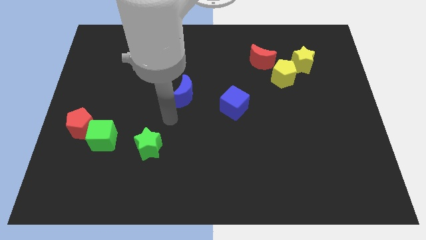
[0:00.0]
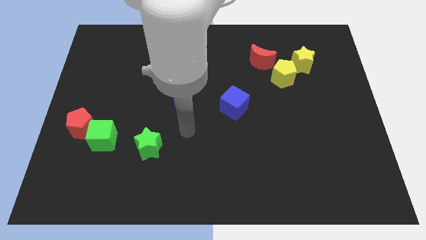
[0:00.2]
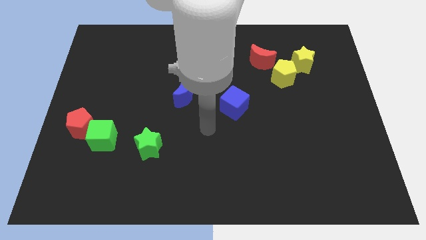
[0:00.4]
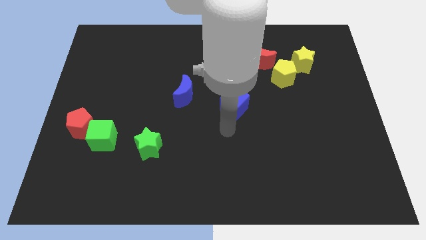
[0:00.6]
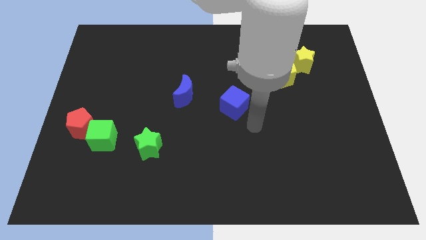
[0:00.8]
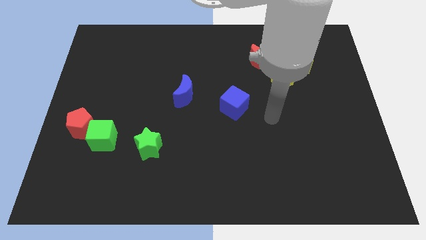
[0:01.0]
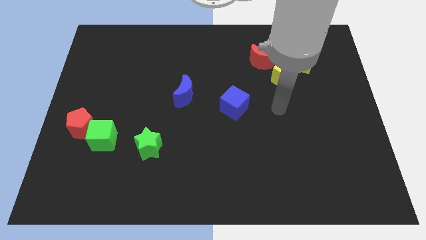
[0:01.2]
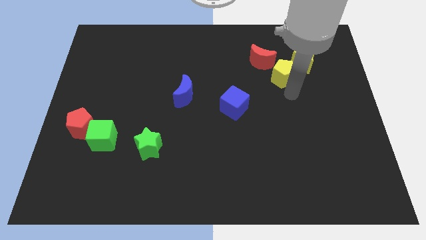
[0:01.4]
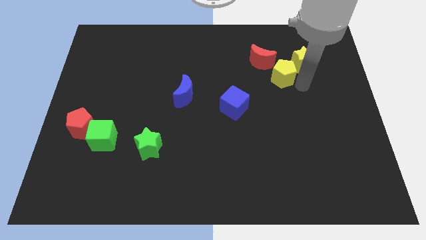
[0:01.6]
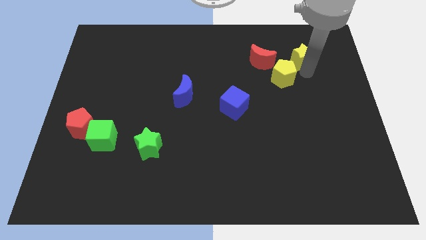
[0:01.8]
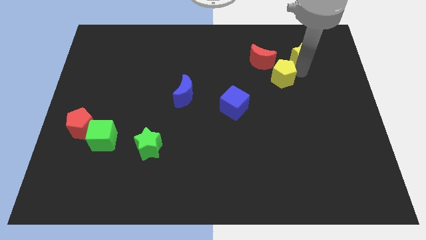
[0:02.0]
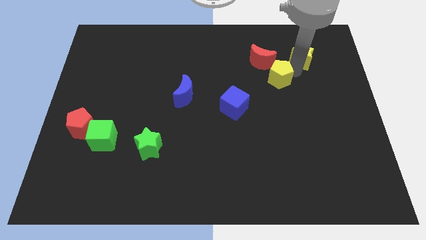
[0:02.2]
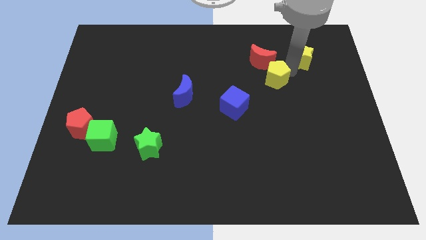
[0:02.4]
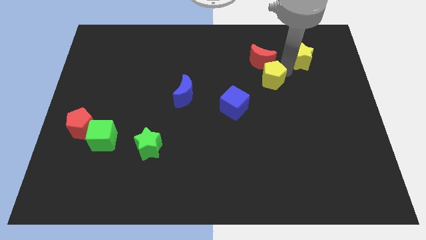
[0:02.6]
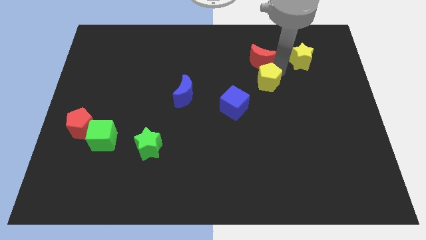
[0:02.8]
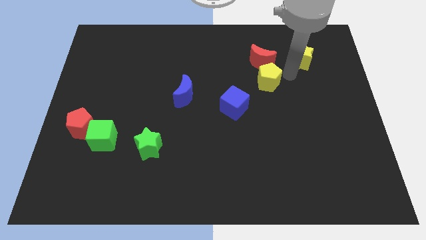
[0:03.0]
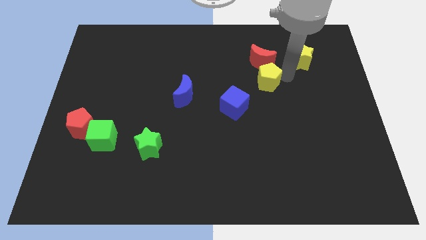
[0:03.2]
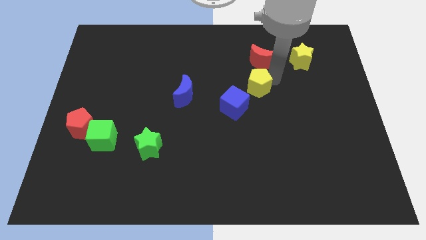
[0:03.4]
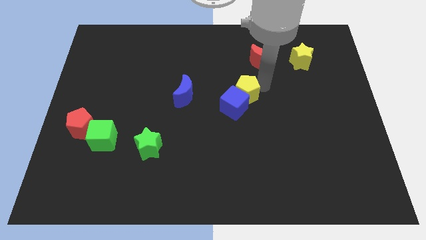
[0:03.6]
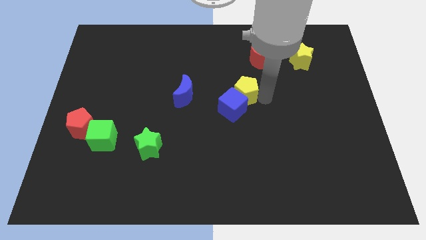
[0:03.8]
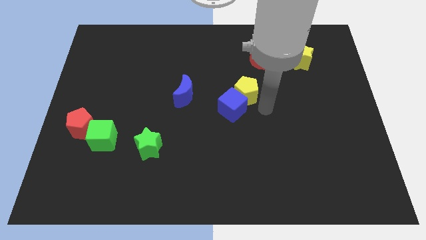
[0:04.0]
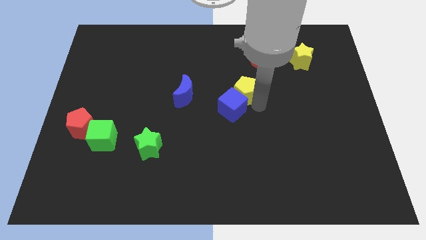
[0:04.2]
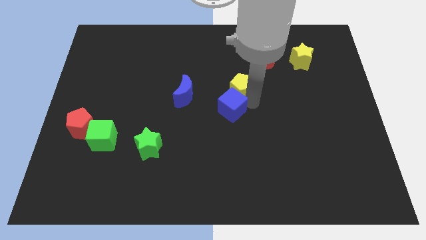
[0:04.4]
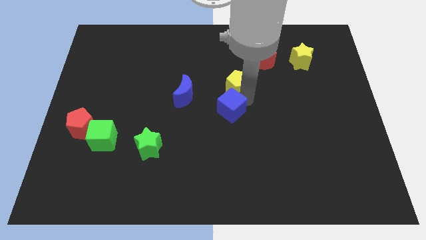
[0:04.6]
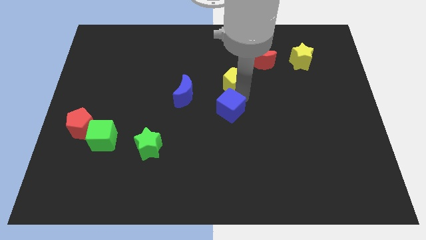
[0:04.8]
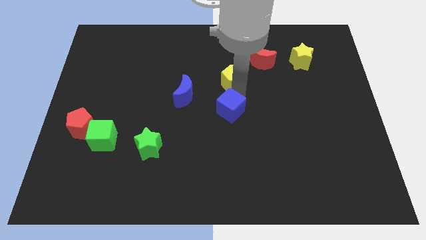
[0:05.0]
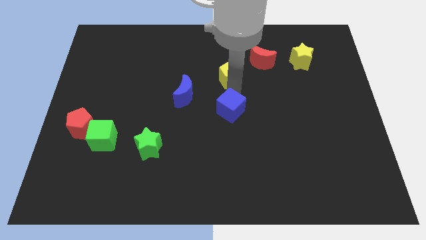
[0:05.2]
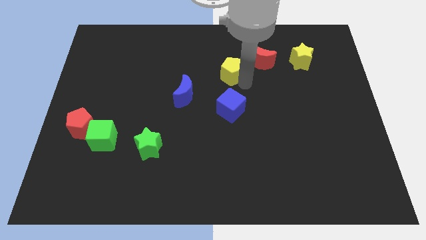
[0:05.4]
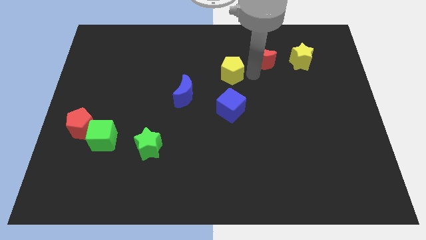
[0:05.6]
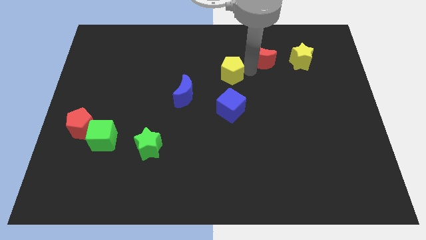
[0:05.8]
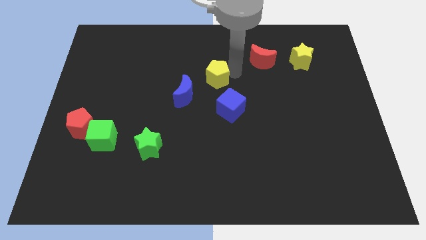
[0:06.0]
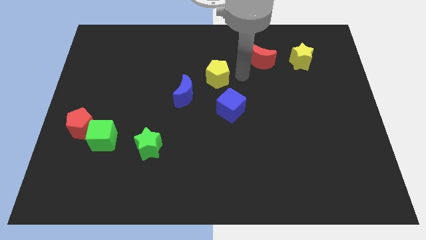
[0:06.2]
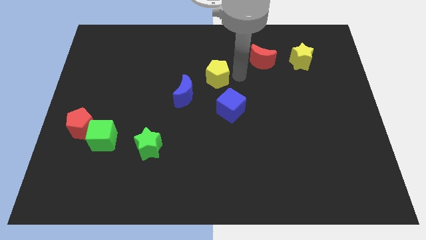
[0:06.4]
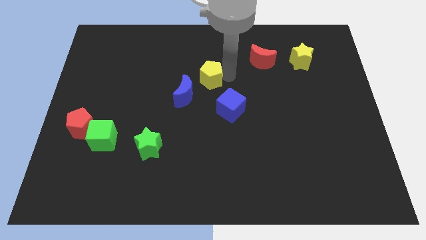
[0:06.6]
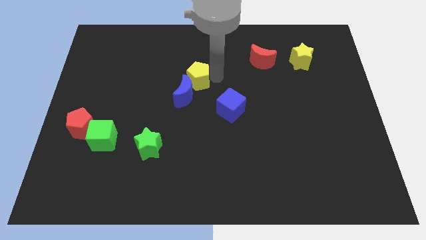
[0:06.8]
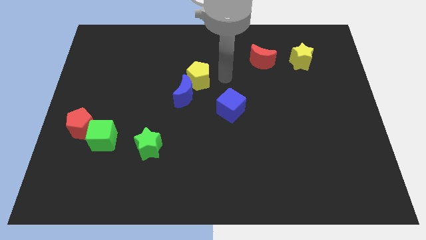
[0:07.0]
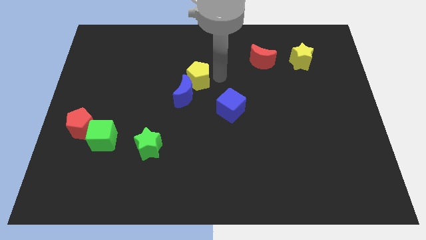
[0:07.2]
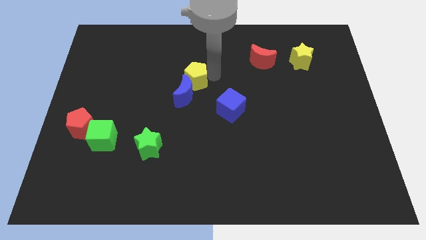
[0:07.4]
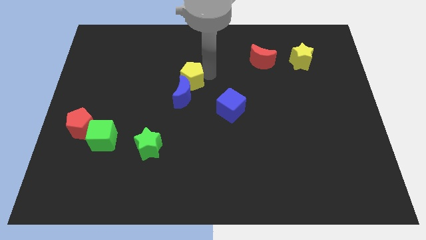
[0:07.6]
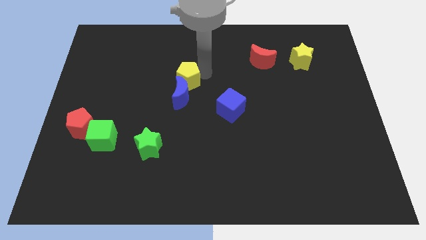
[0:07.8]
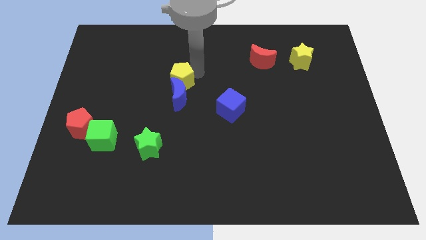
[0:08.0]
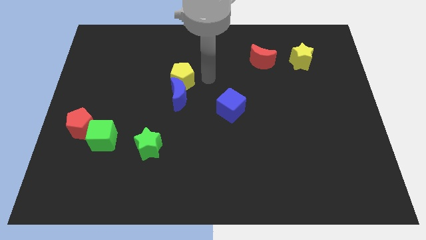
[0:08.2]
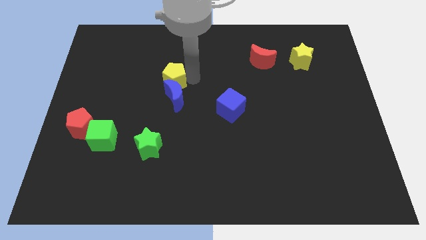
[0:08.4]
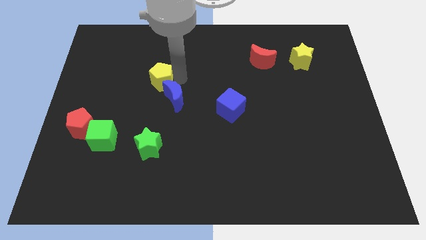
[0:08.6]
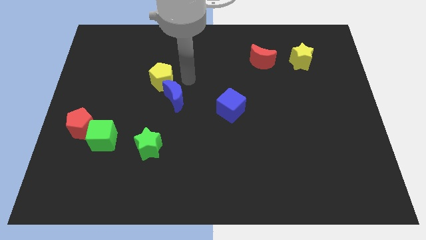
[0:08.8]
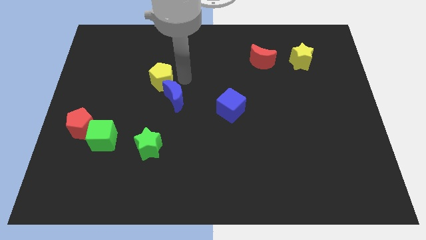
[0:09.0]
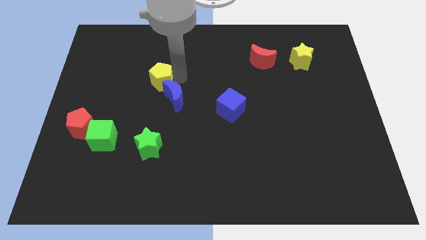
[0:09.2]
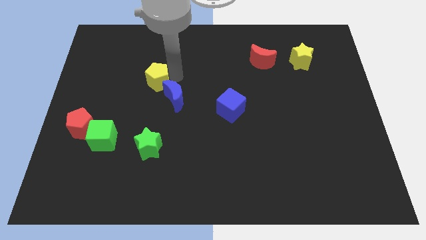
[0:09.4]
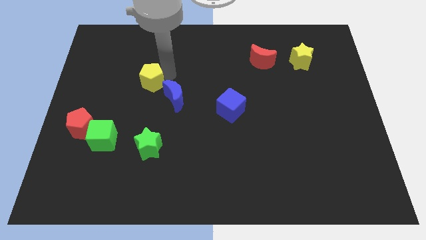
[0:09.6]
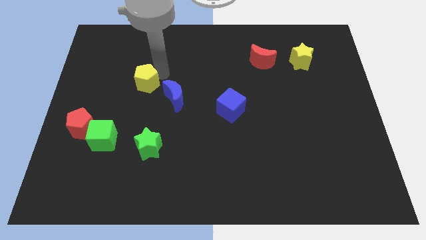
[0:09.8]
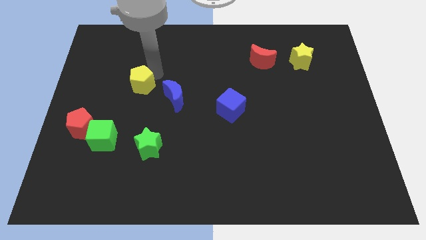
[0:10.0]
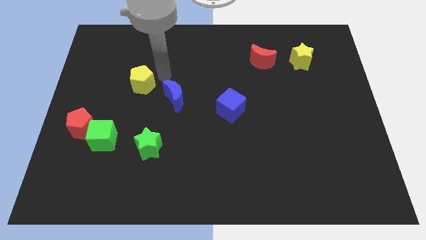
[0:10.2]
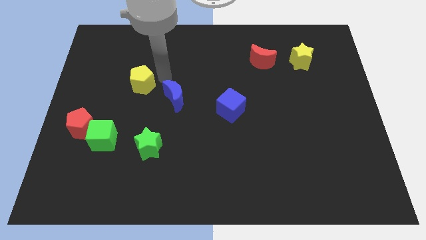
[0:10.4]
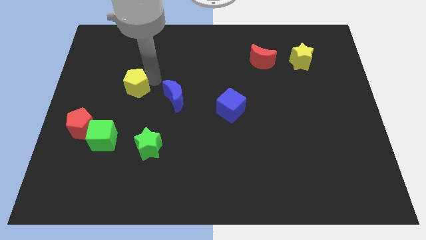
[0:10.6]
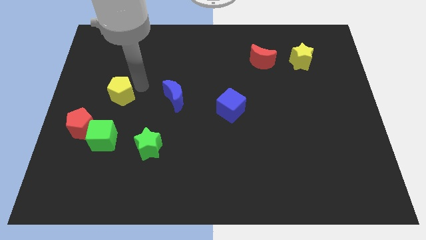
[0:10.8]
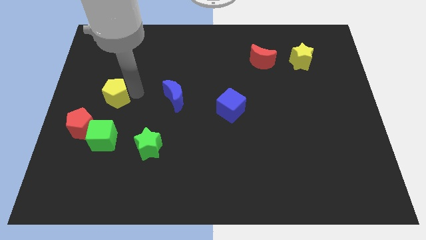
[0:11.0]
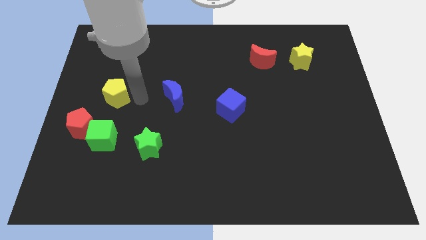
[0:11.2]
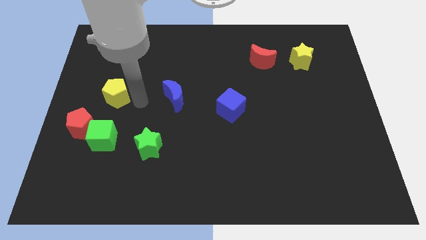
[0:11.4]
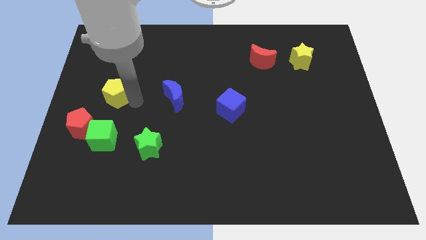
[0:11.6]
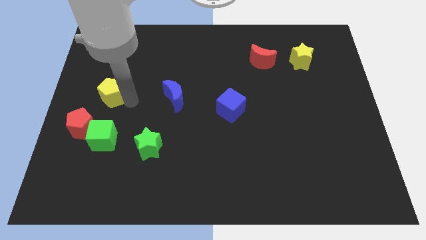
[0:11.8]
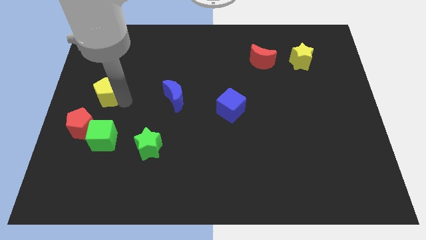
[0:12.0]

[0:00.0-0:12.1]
move the yellow pentagon to the center left
